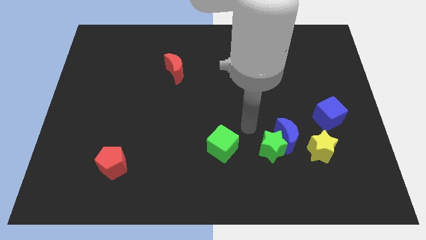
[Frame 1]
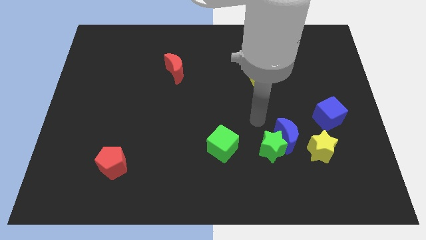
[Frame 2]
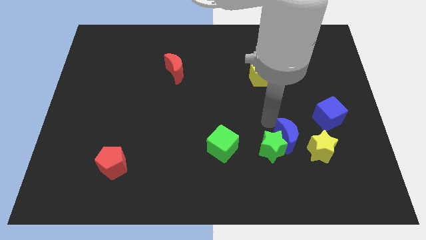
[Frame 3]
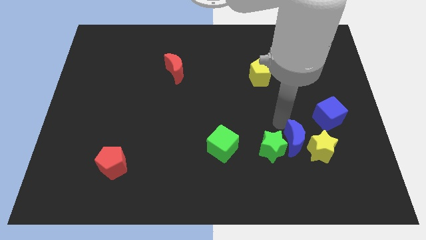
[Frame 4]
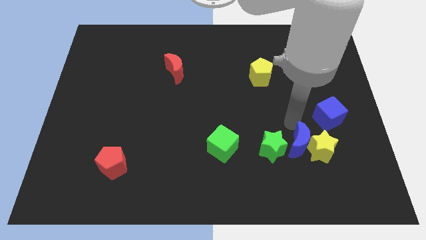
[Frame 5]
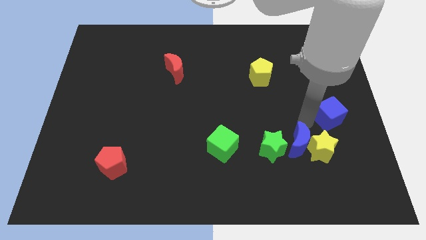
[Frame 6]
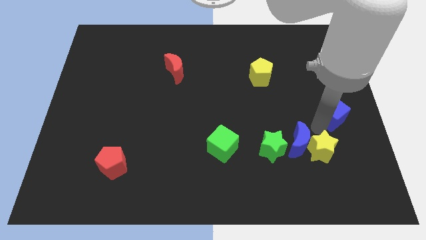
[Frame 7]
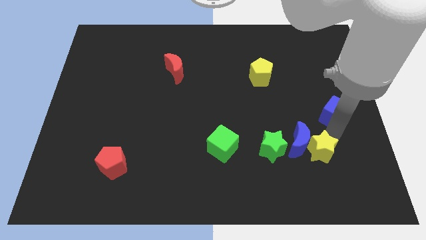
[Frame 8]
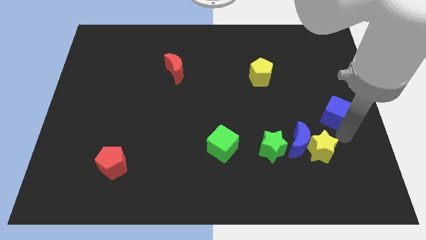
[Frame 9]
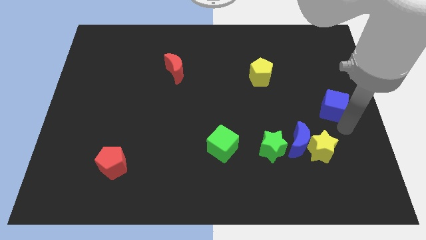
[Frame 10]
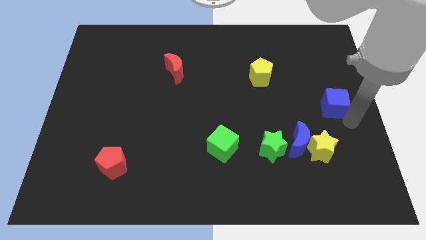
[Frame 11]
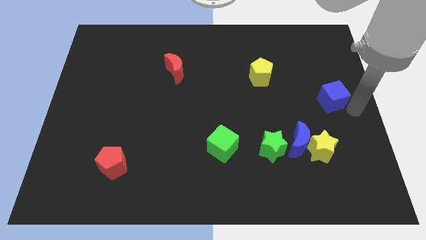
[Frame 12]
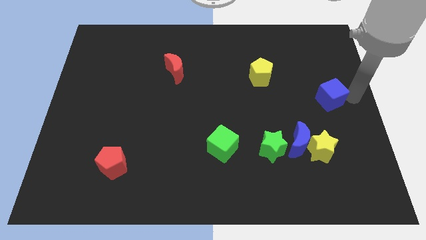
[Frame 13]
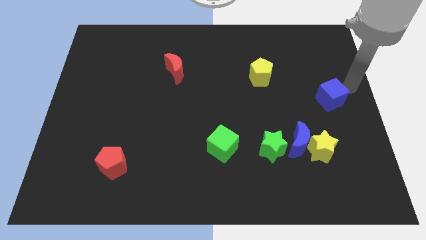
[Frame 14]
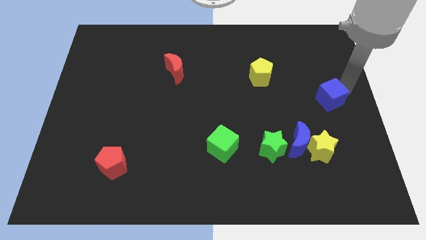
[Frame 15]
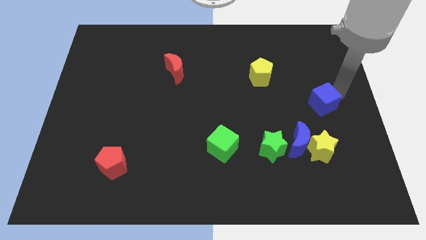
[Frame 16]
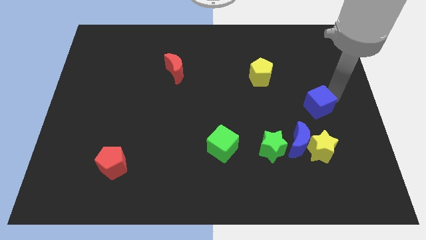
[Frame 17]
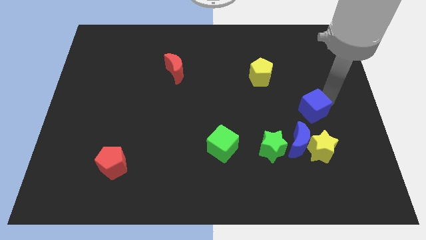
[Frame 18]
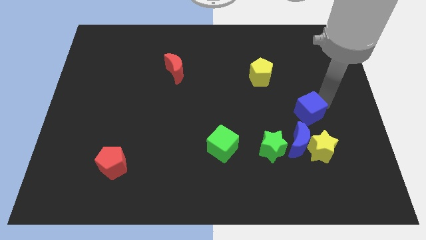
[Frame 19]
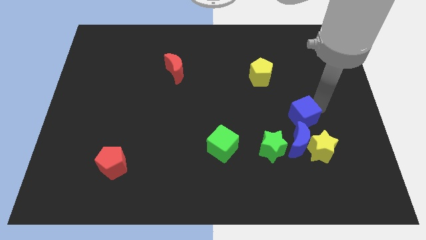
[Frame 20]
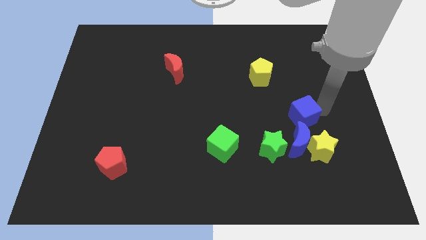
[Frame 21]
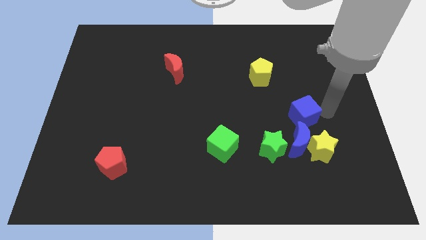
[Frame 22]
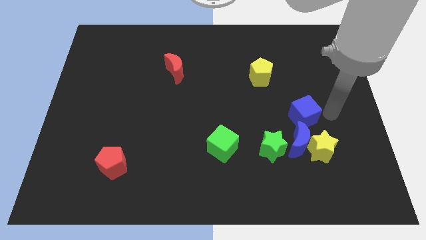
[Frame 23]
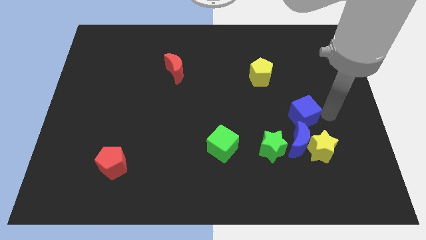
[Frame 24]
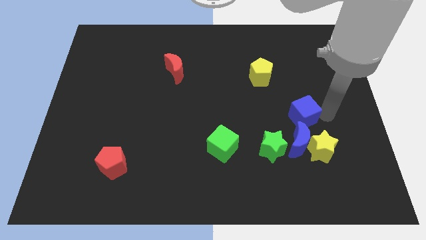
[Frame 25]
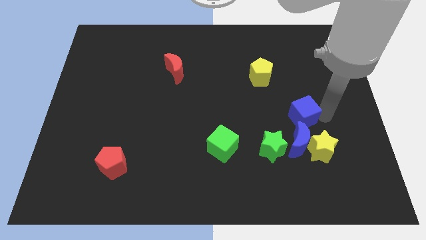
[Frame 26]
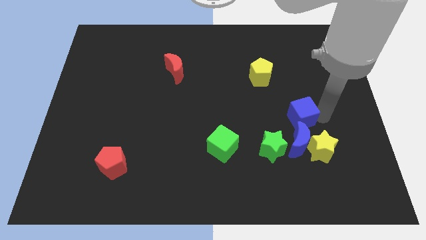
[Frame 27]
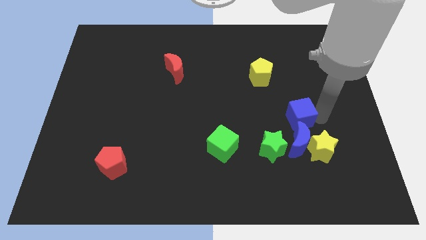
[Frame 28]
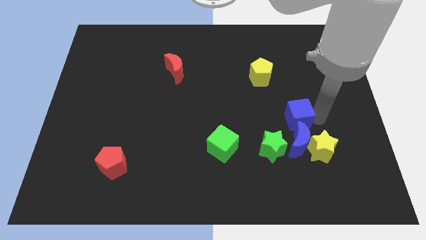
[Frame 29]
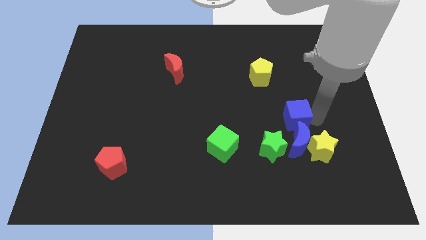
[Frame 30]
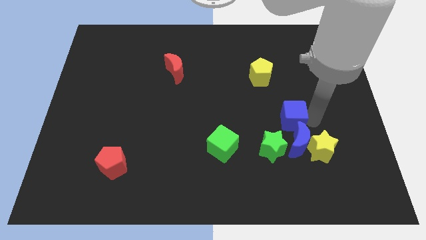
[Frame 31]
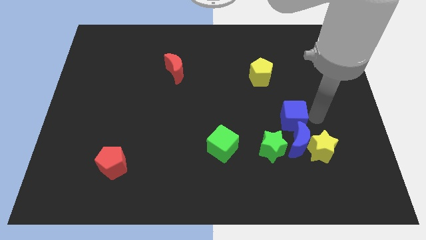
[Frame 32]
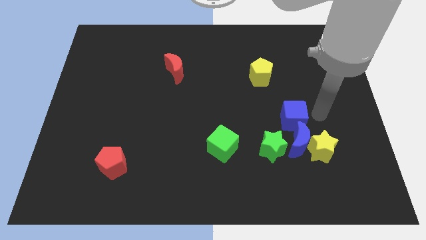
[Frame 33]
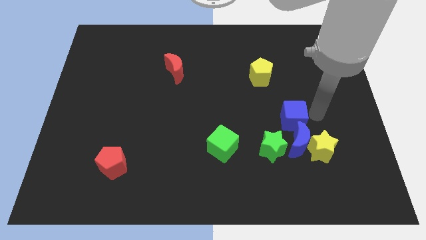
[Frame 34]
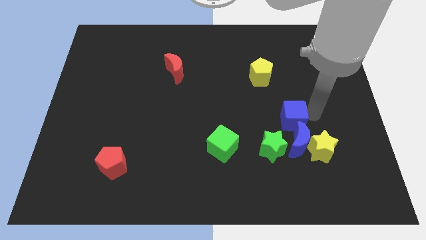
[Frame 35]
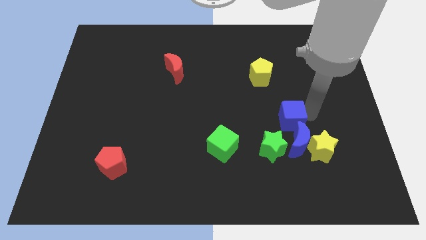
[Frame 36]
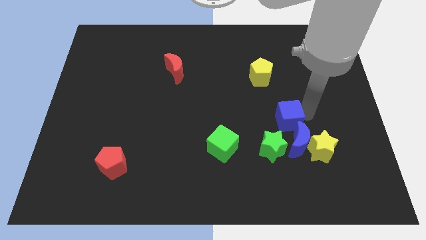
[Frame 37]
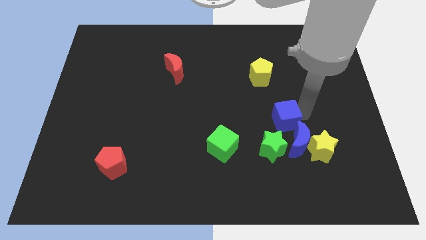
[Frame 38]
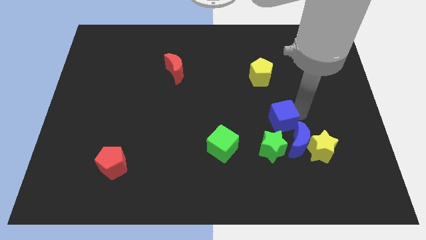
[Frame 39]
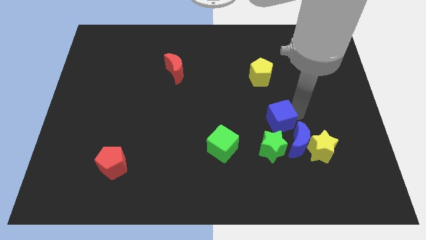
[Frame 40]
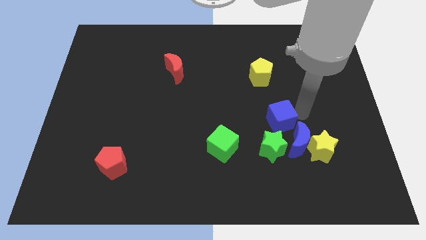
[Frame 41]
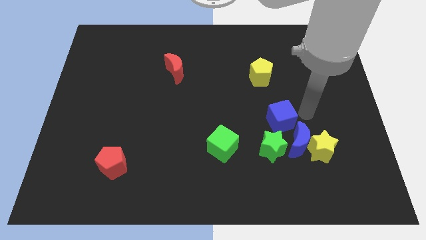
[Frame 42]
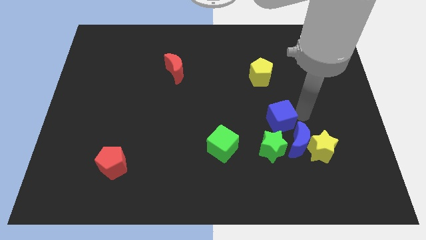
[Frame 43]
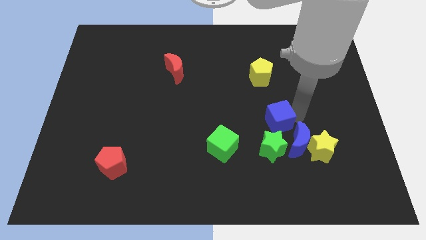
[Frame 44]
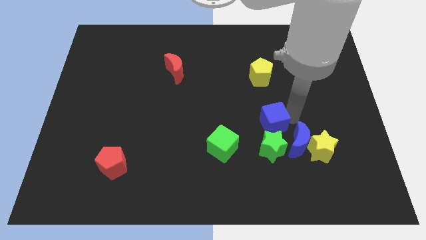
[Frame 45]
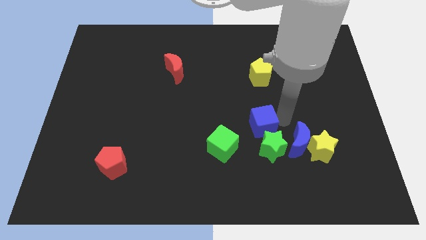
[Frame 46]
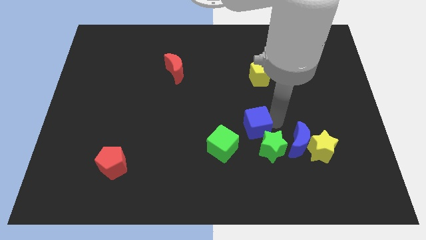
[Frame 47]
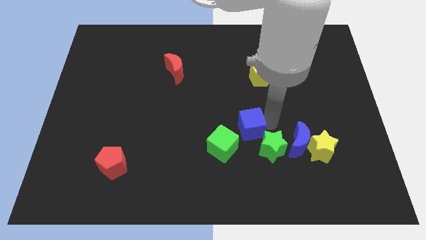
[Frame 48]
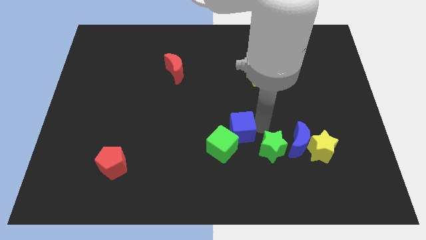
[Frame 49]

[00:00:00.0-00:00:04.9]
push the blue cube to the left

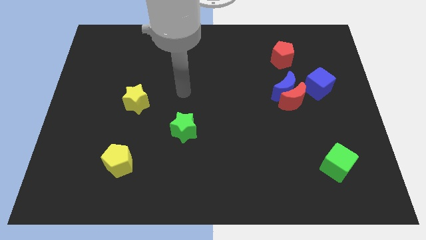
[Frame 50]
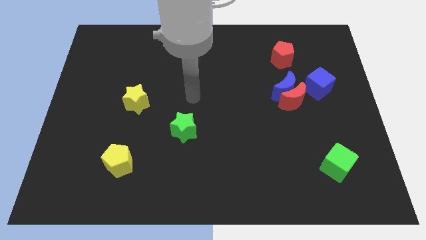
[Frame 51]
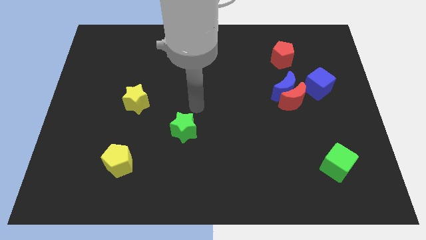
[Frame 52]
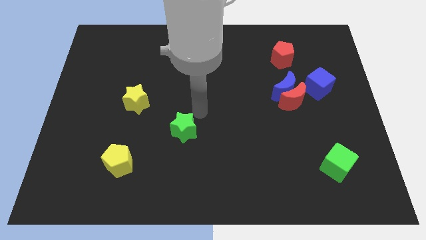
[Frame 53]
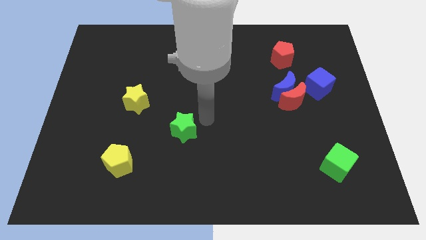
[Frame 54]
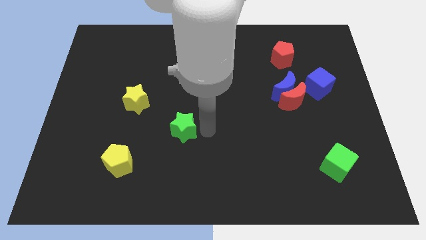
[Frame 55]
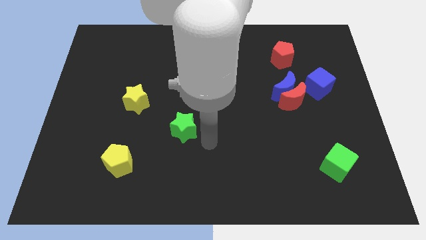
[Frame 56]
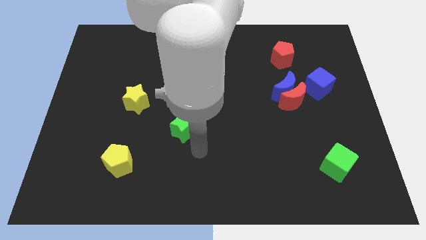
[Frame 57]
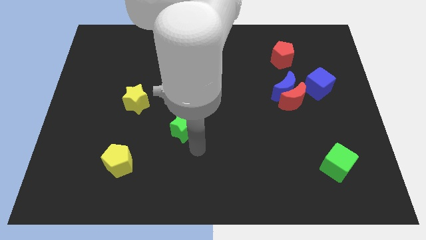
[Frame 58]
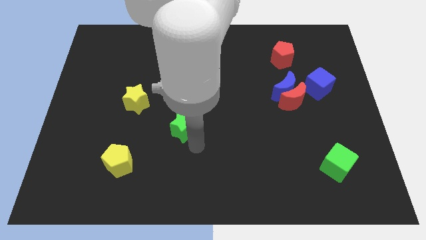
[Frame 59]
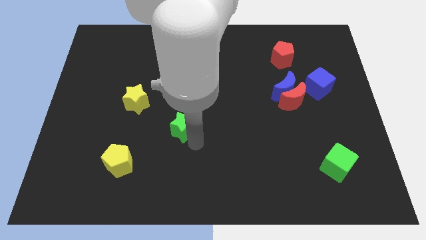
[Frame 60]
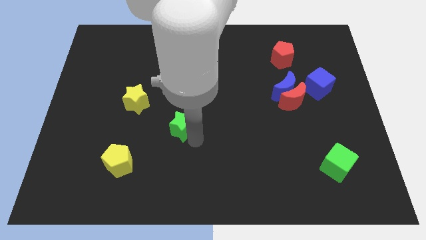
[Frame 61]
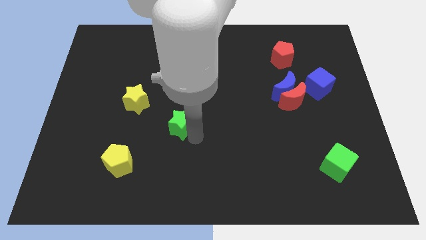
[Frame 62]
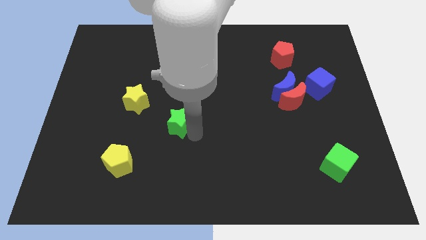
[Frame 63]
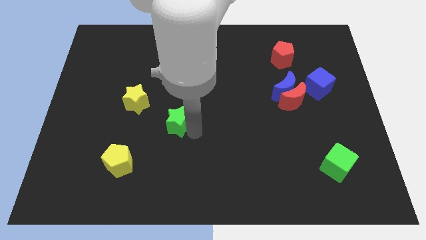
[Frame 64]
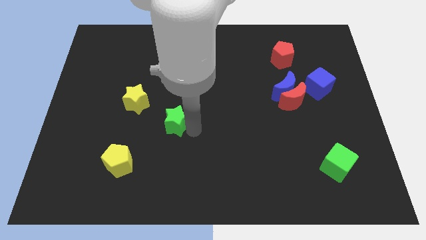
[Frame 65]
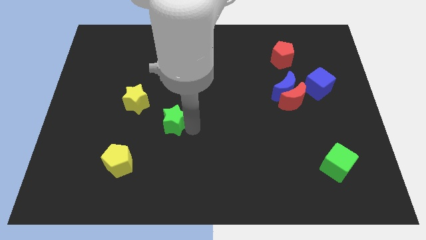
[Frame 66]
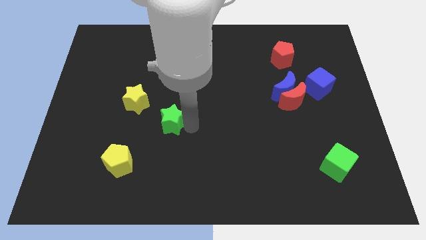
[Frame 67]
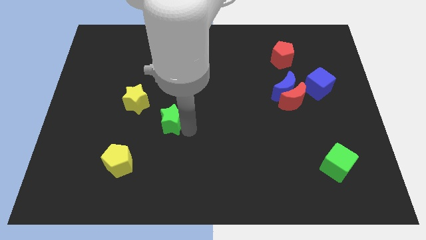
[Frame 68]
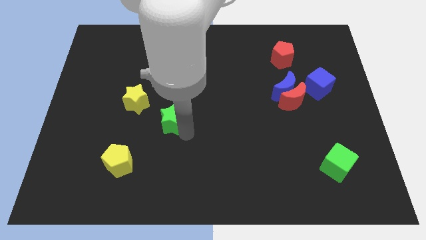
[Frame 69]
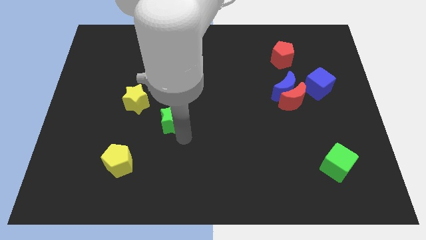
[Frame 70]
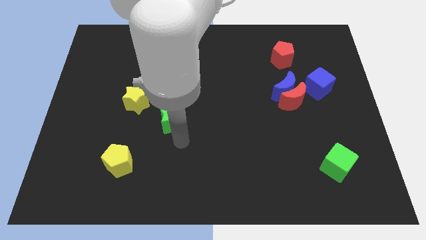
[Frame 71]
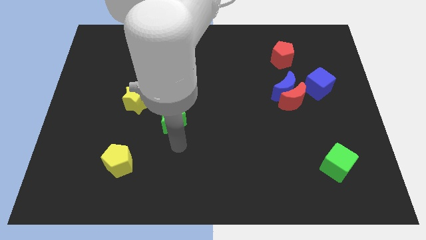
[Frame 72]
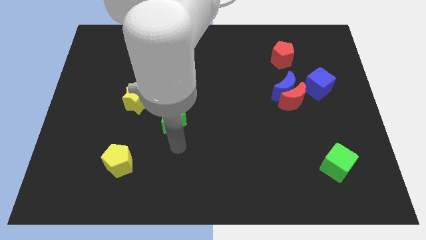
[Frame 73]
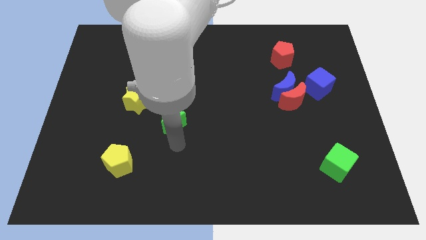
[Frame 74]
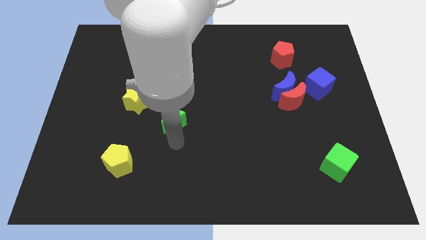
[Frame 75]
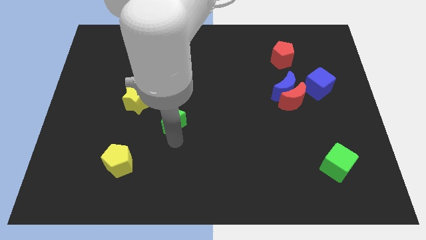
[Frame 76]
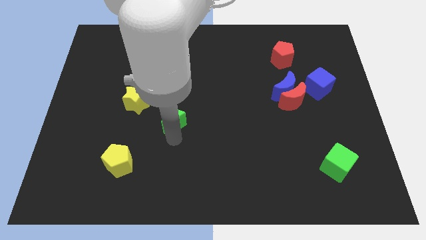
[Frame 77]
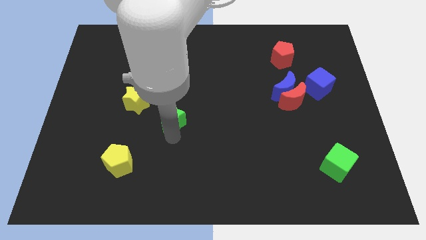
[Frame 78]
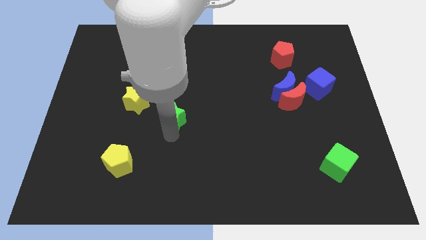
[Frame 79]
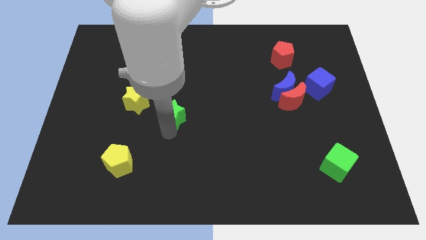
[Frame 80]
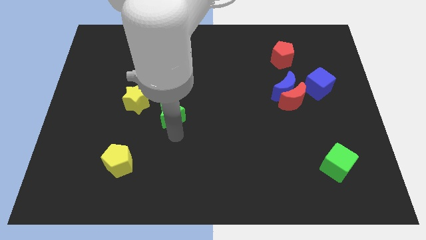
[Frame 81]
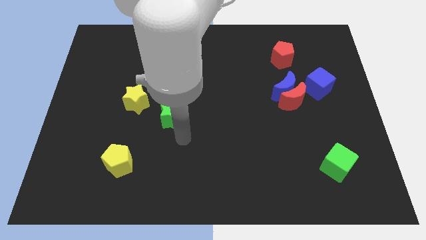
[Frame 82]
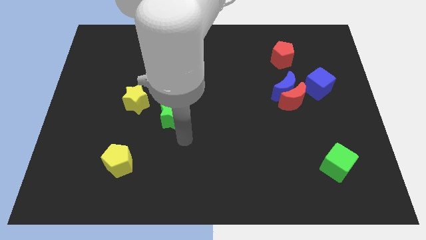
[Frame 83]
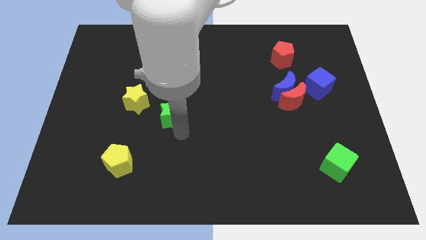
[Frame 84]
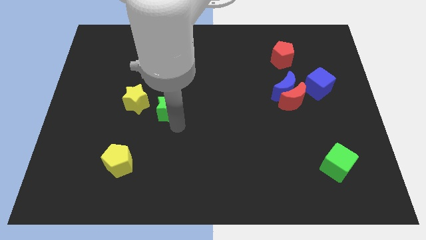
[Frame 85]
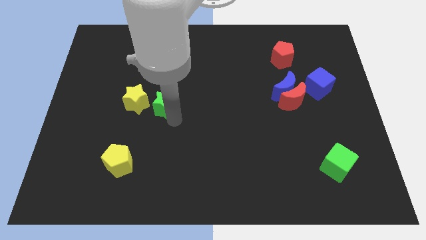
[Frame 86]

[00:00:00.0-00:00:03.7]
slightly push the green star upwards and to the left
